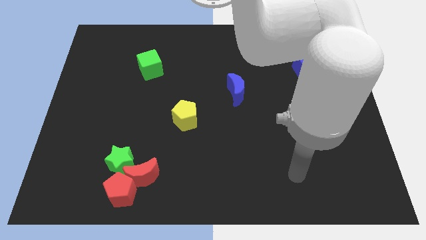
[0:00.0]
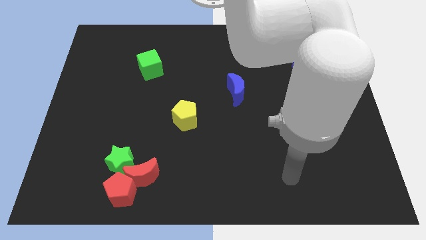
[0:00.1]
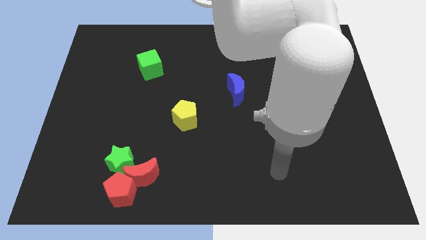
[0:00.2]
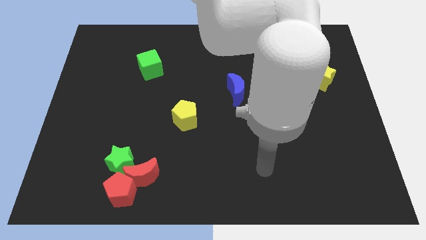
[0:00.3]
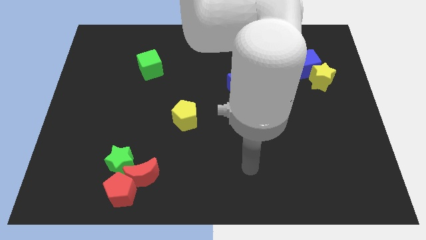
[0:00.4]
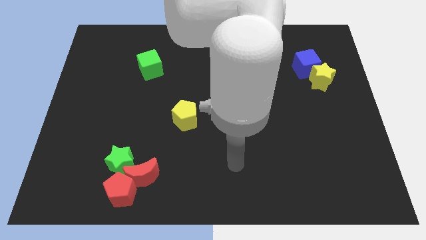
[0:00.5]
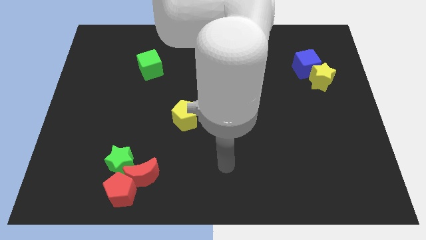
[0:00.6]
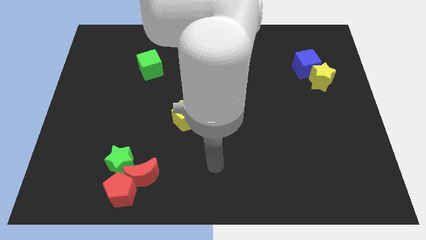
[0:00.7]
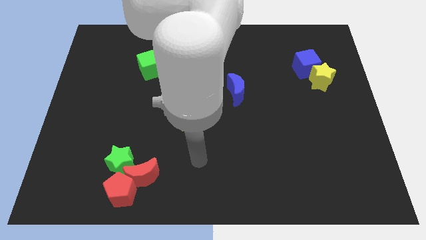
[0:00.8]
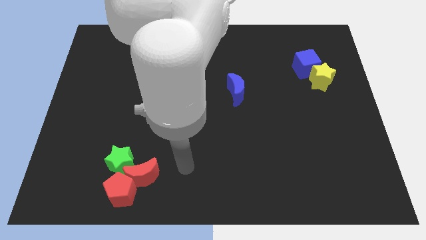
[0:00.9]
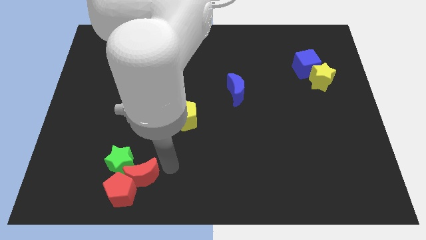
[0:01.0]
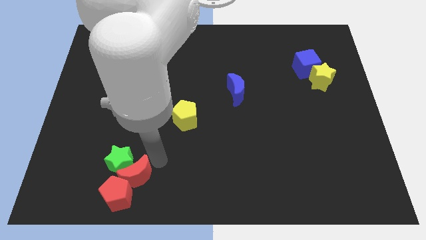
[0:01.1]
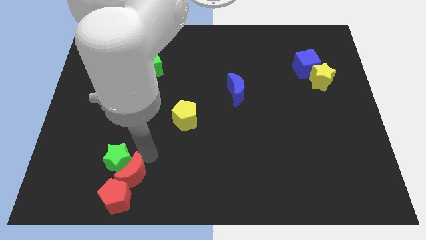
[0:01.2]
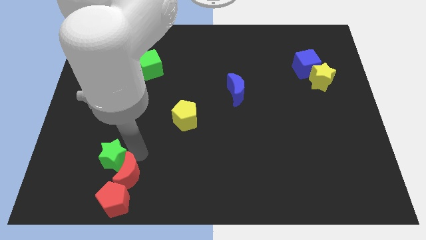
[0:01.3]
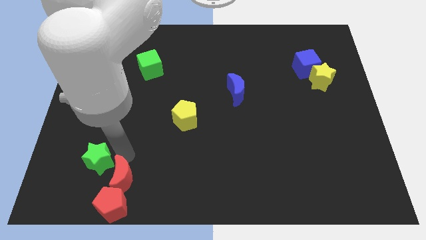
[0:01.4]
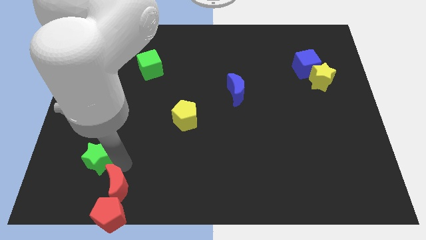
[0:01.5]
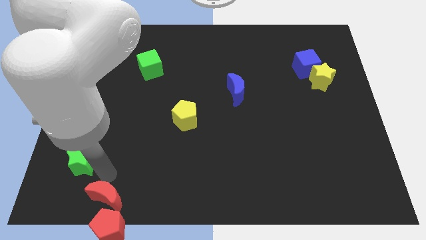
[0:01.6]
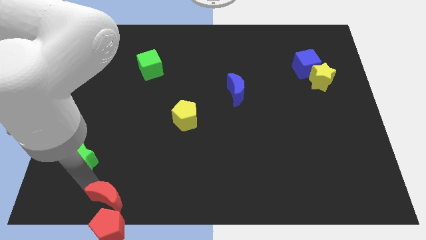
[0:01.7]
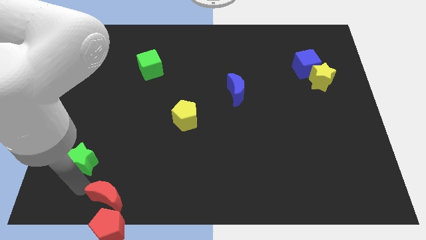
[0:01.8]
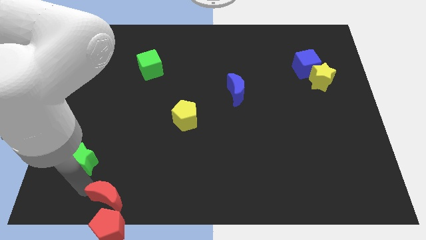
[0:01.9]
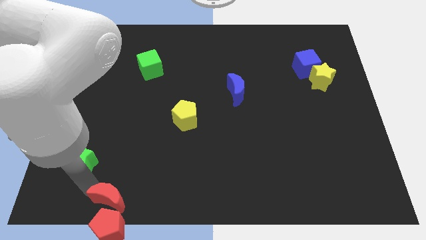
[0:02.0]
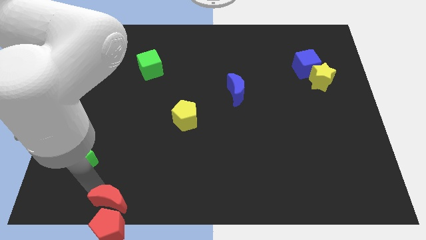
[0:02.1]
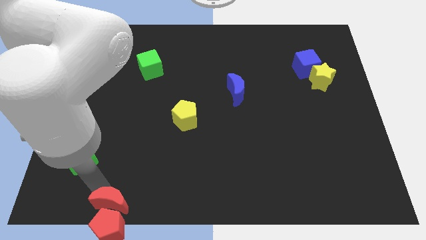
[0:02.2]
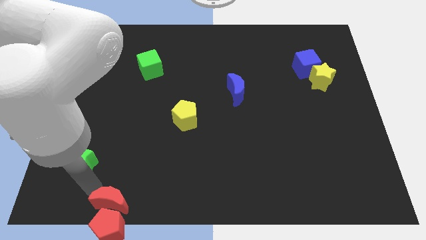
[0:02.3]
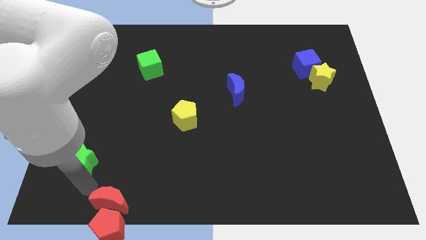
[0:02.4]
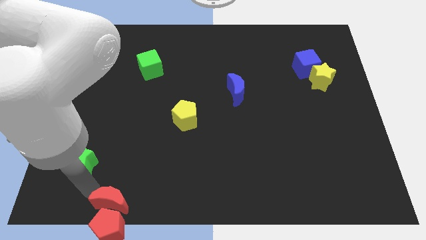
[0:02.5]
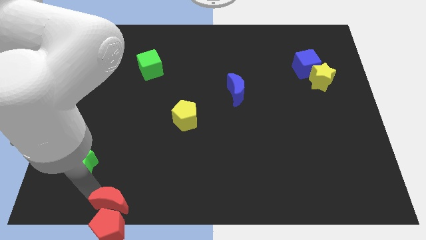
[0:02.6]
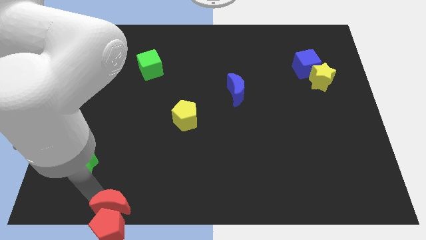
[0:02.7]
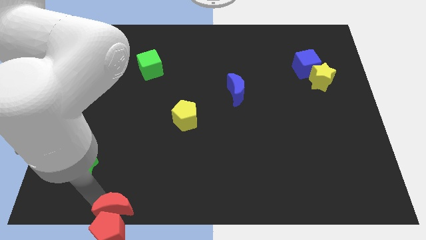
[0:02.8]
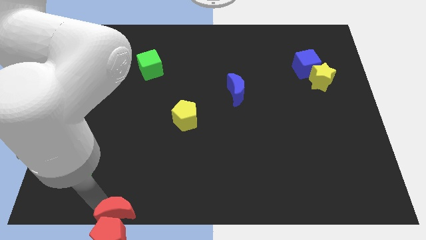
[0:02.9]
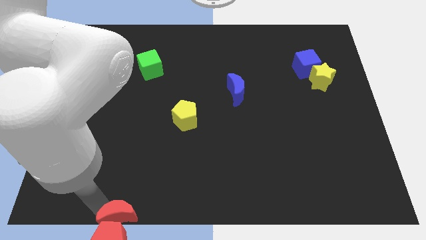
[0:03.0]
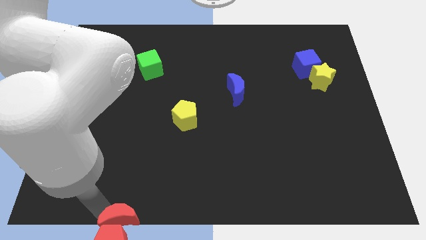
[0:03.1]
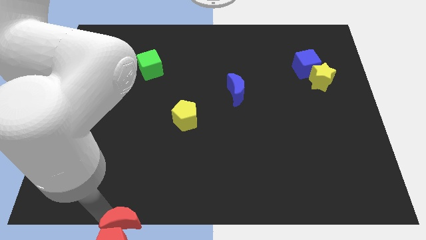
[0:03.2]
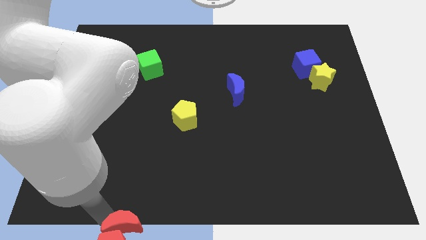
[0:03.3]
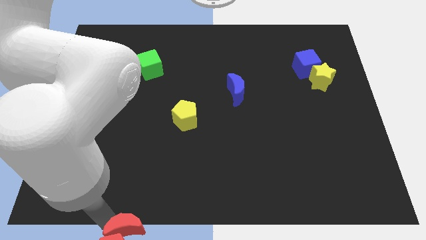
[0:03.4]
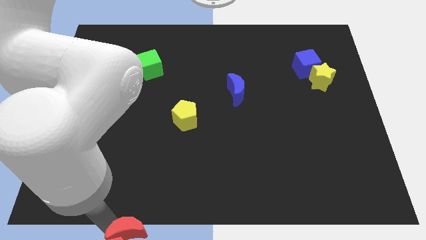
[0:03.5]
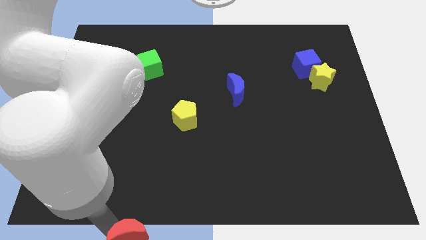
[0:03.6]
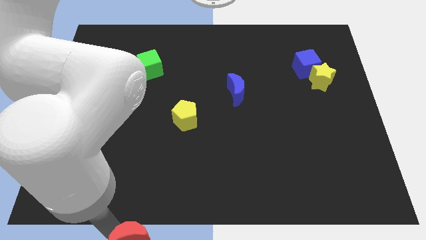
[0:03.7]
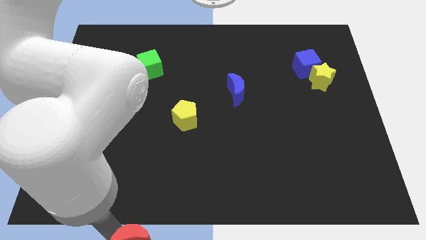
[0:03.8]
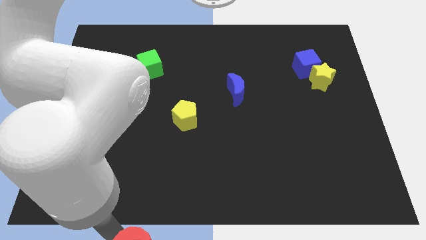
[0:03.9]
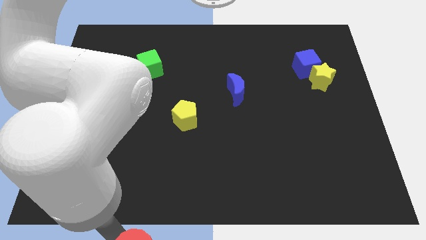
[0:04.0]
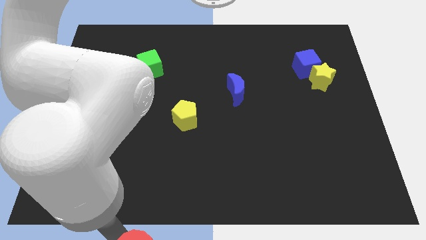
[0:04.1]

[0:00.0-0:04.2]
move the red moon away from the red pentagon and green star

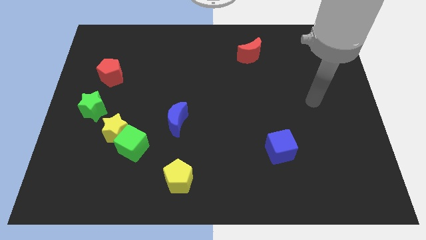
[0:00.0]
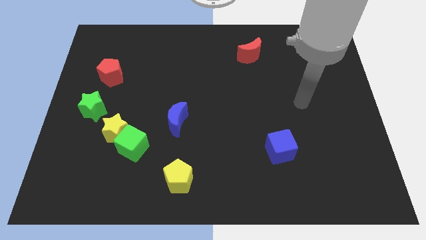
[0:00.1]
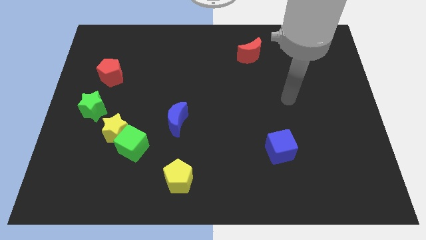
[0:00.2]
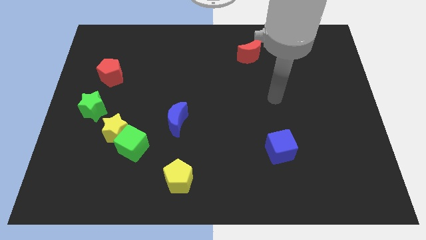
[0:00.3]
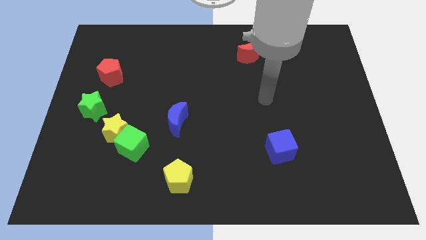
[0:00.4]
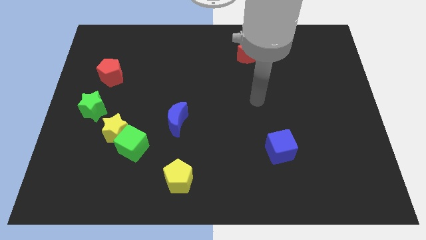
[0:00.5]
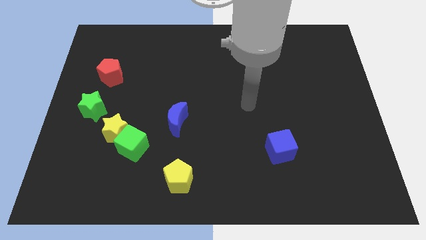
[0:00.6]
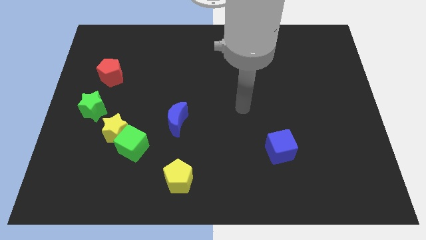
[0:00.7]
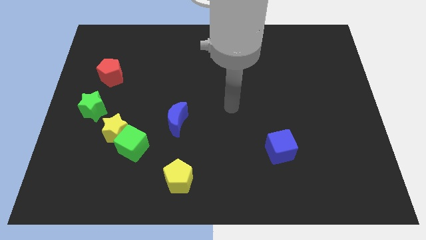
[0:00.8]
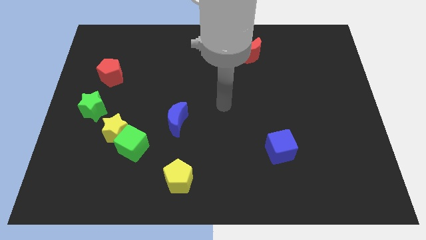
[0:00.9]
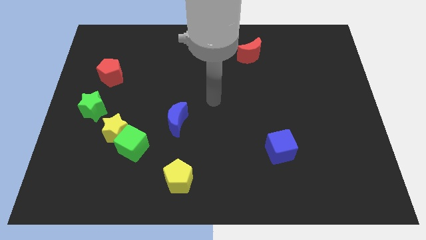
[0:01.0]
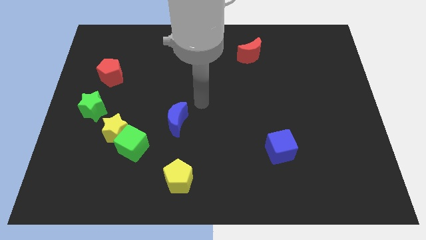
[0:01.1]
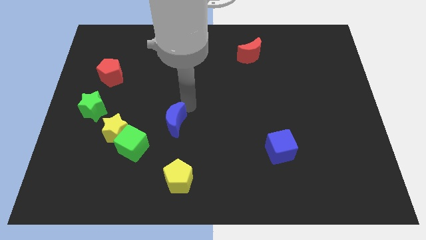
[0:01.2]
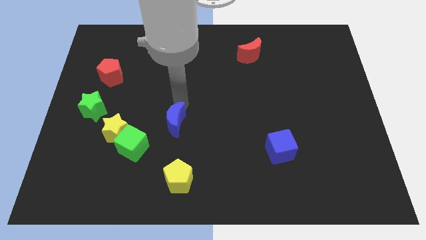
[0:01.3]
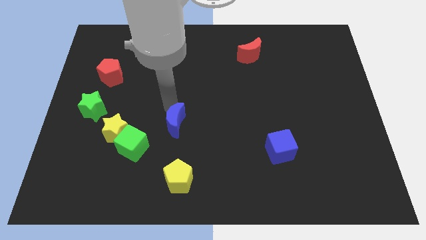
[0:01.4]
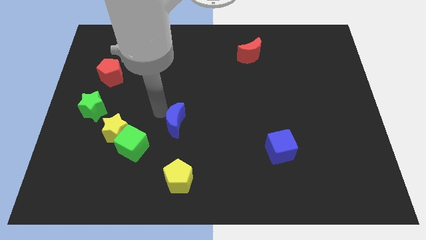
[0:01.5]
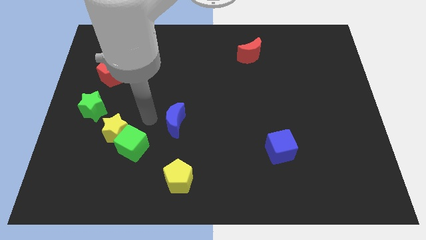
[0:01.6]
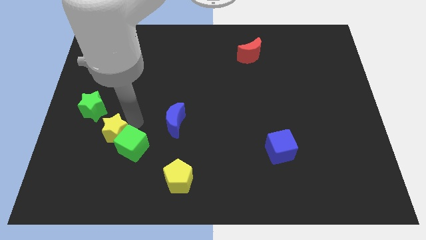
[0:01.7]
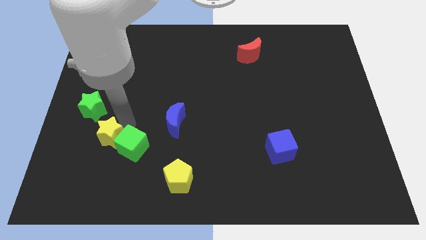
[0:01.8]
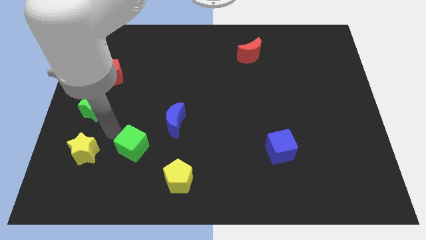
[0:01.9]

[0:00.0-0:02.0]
separate the green cube from the yellow star

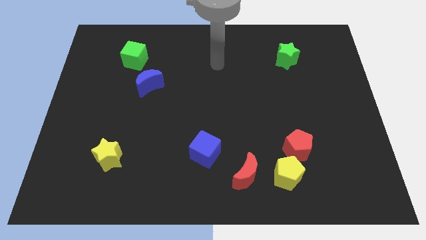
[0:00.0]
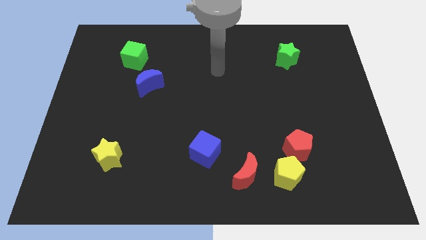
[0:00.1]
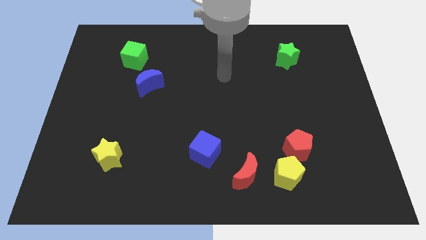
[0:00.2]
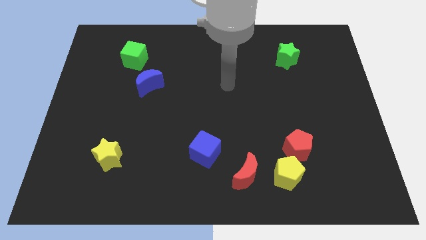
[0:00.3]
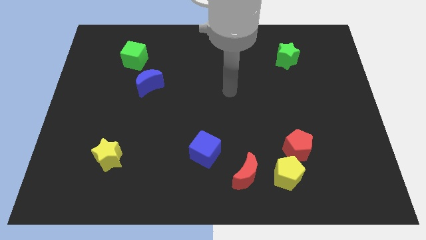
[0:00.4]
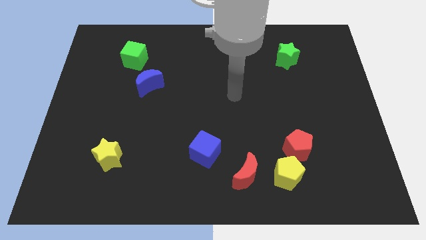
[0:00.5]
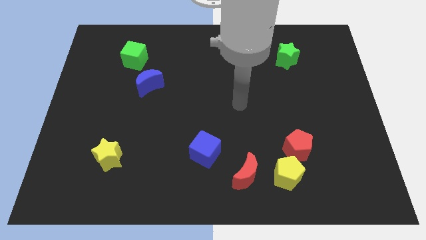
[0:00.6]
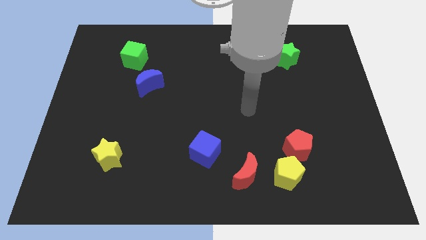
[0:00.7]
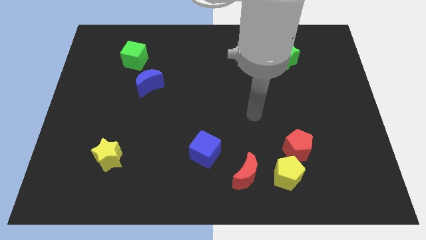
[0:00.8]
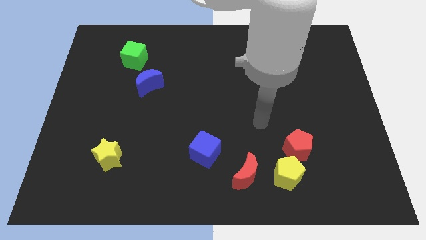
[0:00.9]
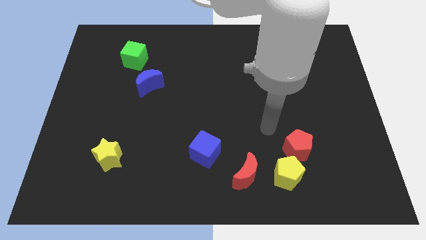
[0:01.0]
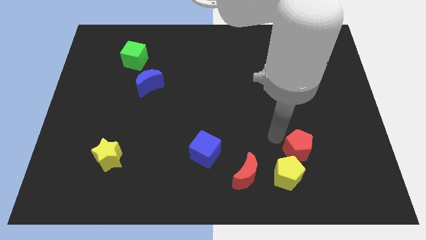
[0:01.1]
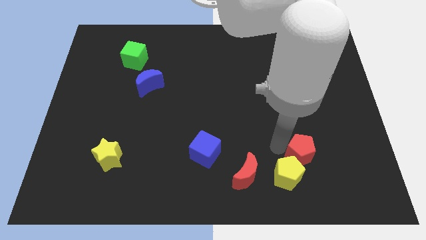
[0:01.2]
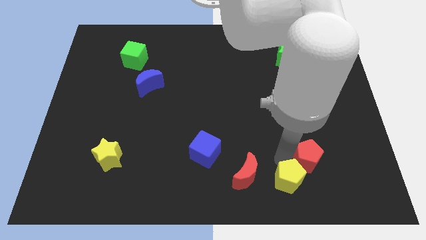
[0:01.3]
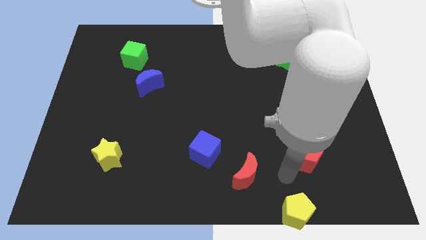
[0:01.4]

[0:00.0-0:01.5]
pull the red pentagon apart from the yellow pentagon

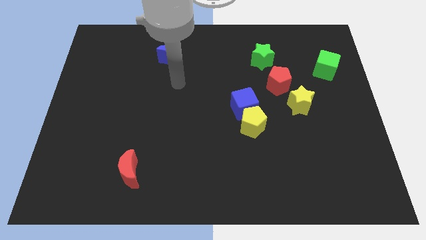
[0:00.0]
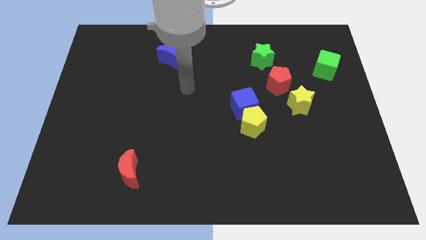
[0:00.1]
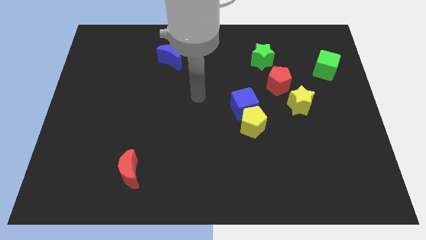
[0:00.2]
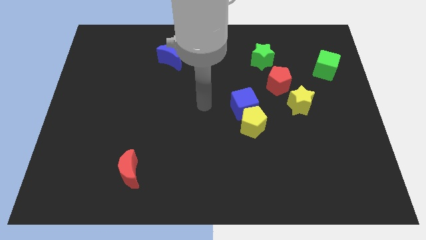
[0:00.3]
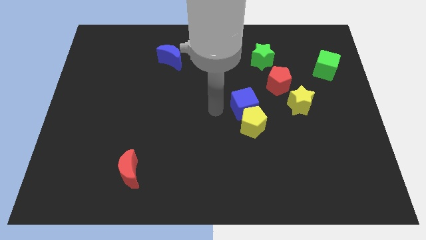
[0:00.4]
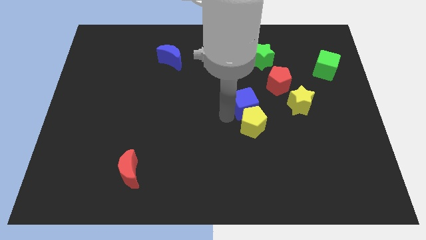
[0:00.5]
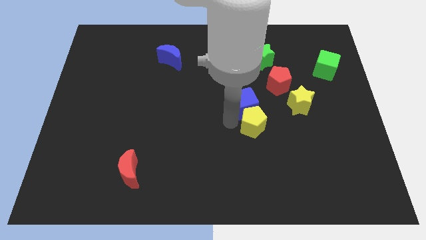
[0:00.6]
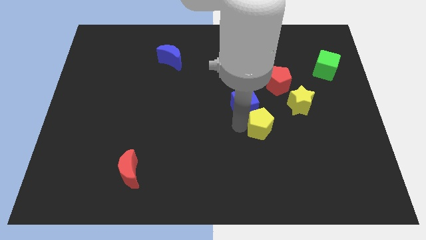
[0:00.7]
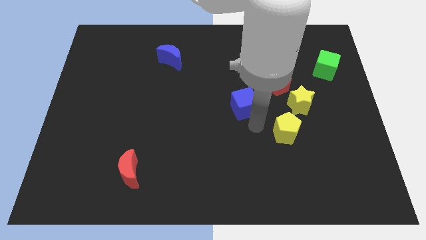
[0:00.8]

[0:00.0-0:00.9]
move the blue cube away from the yellow pentagon

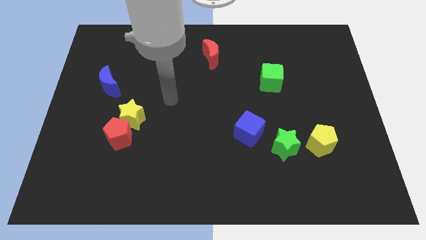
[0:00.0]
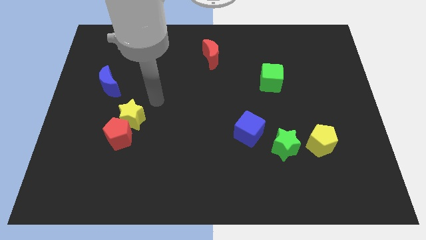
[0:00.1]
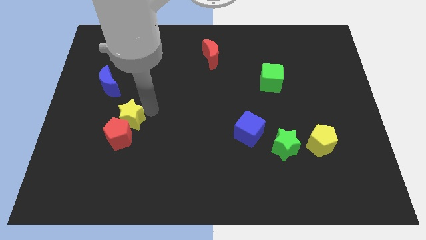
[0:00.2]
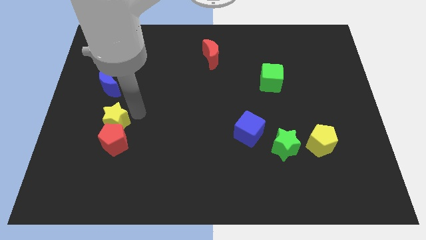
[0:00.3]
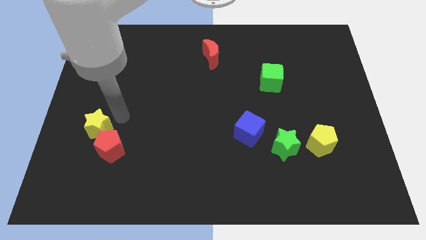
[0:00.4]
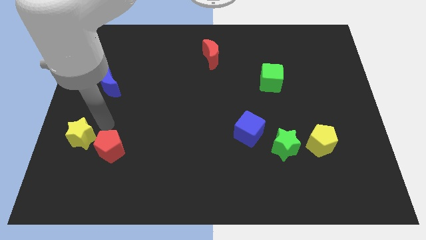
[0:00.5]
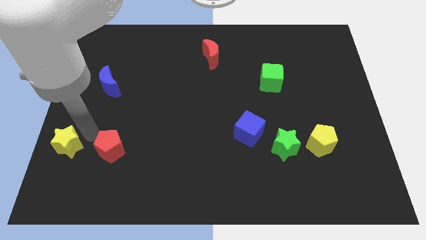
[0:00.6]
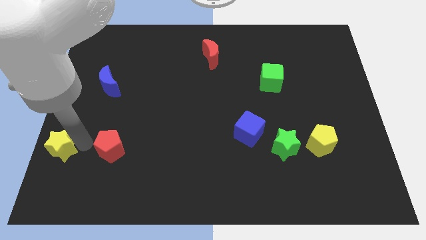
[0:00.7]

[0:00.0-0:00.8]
separate the red pentagon from the yellow star
